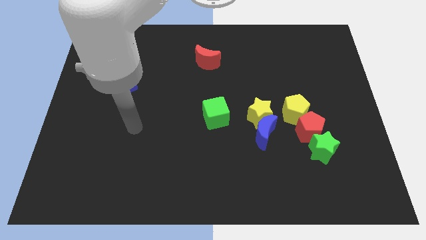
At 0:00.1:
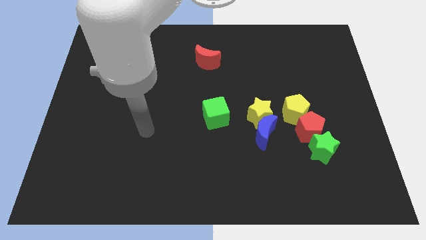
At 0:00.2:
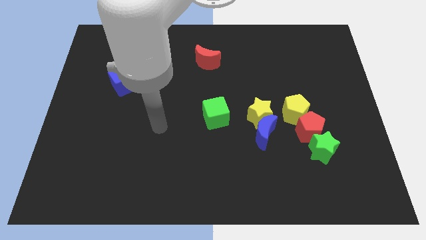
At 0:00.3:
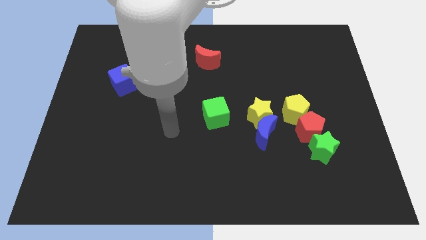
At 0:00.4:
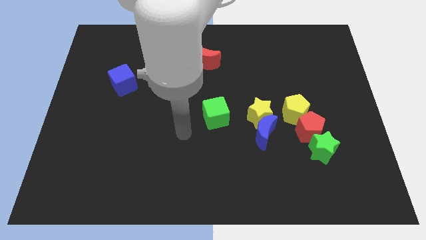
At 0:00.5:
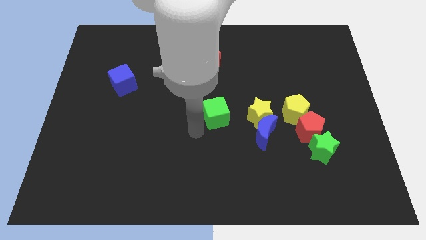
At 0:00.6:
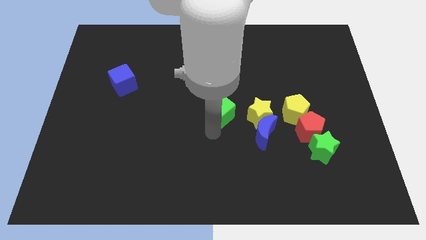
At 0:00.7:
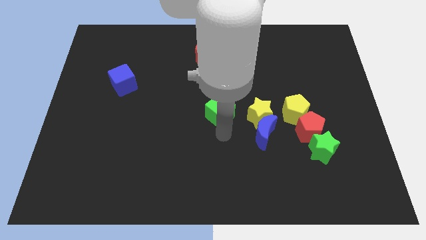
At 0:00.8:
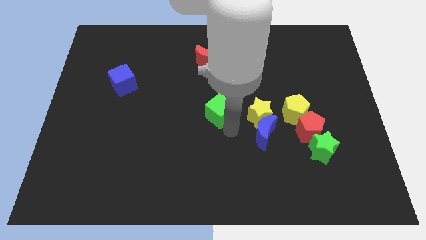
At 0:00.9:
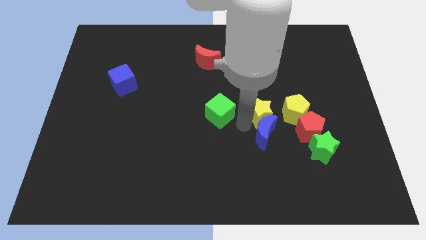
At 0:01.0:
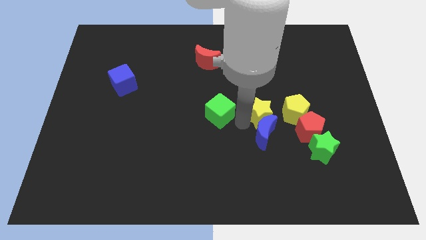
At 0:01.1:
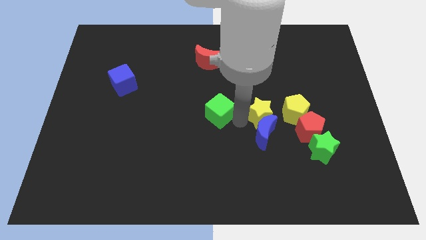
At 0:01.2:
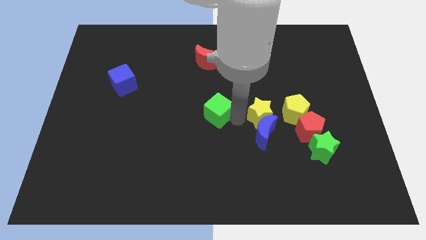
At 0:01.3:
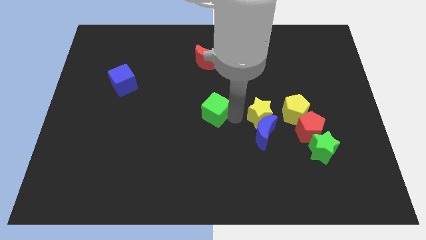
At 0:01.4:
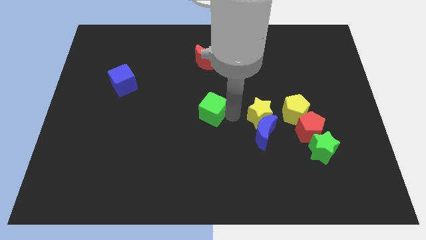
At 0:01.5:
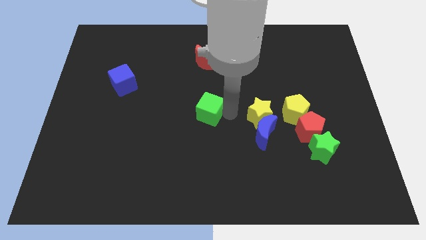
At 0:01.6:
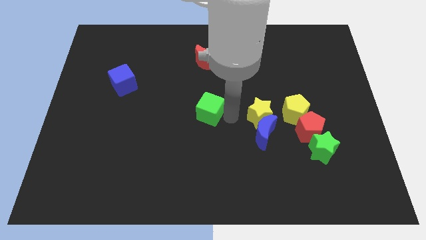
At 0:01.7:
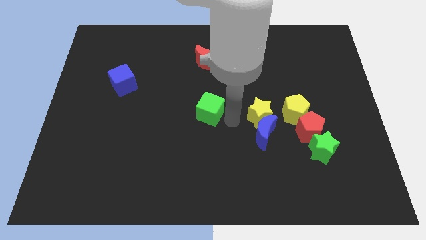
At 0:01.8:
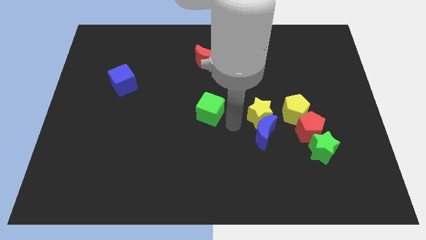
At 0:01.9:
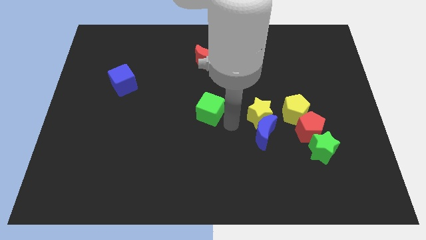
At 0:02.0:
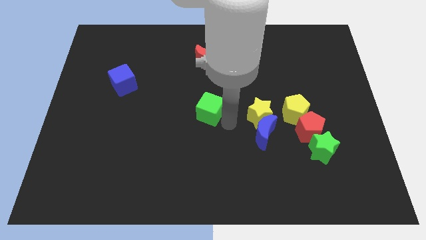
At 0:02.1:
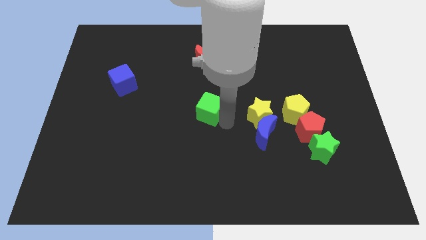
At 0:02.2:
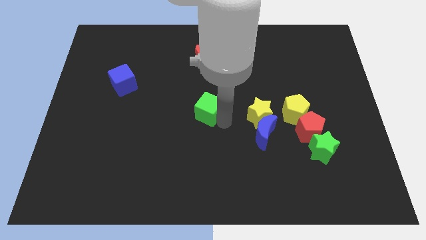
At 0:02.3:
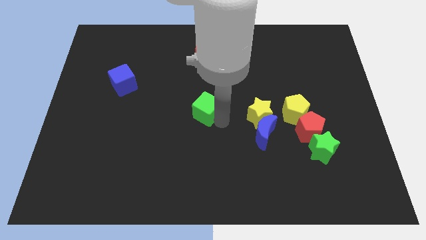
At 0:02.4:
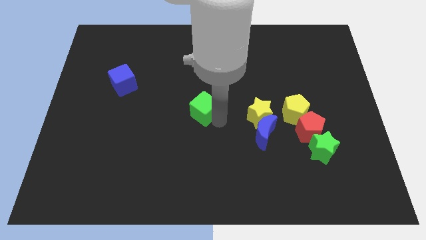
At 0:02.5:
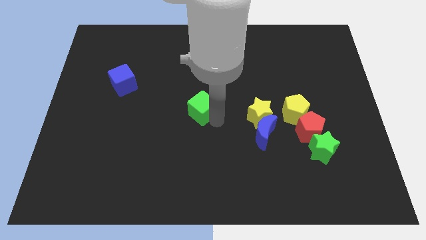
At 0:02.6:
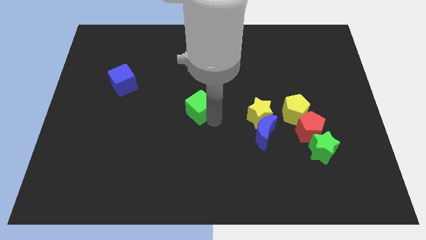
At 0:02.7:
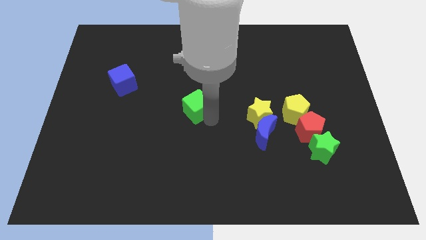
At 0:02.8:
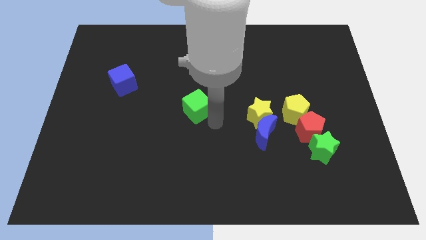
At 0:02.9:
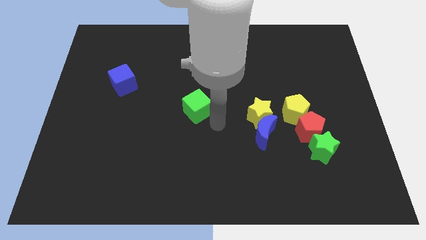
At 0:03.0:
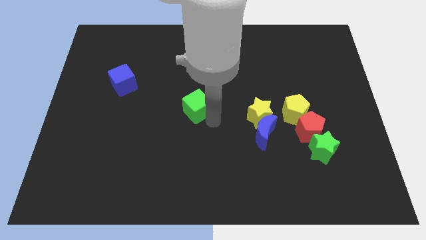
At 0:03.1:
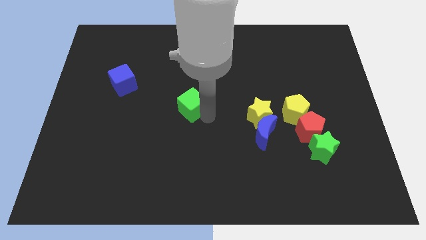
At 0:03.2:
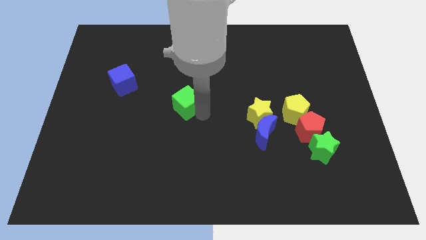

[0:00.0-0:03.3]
slide the green cube a little bit diagonally up and to the left

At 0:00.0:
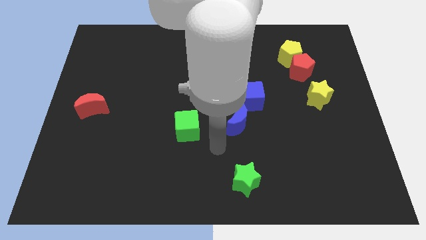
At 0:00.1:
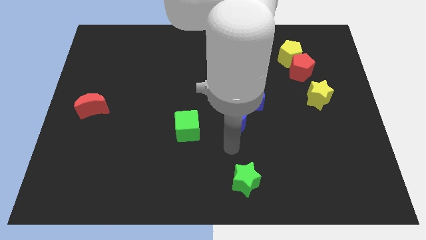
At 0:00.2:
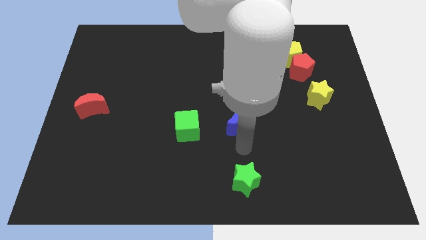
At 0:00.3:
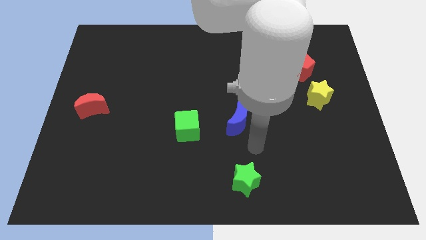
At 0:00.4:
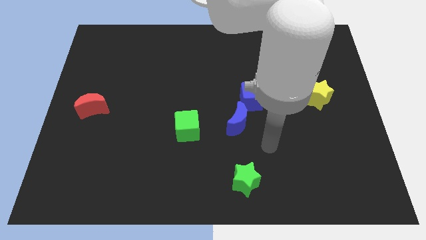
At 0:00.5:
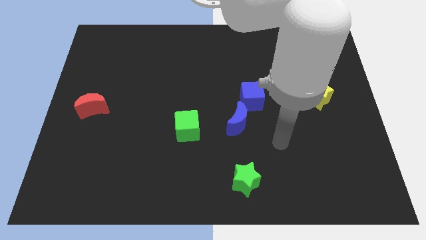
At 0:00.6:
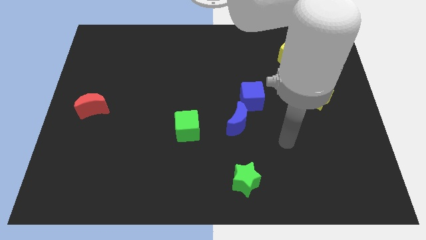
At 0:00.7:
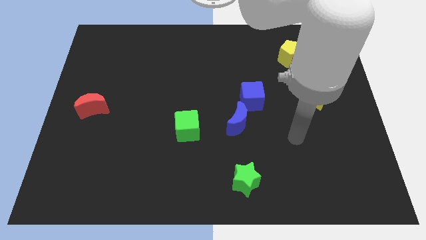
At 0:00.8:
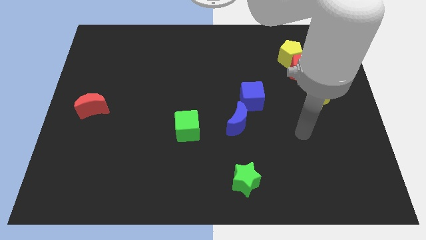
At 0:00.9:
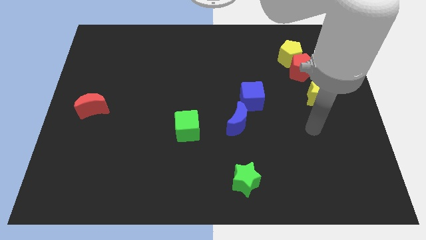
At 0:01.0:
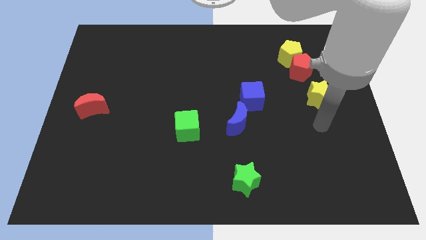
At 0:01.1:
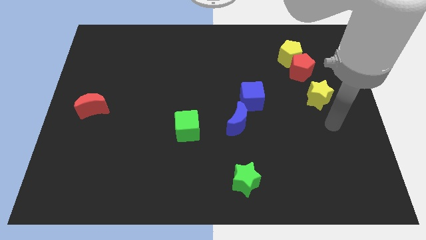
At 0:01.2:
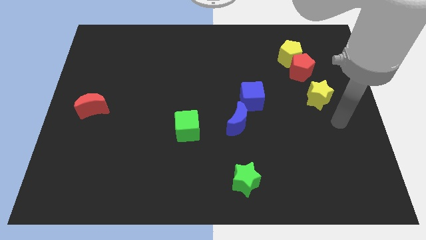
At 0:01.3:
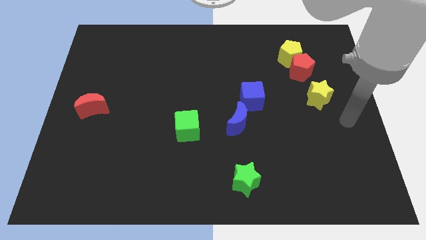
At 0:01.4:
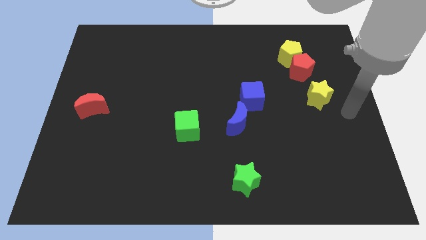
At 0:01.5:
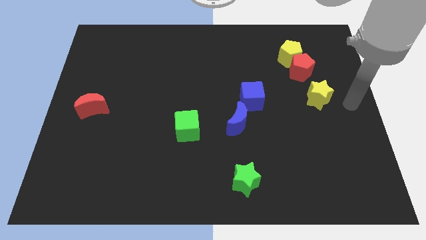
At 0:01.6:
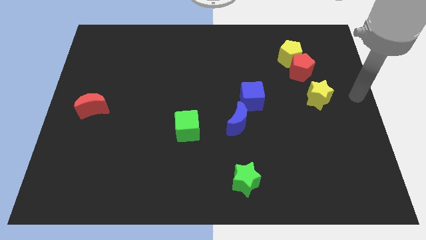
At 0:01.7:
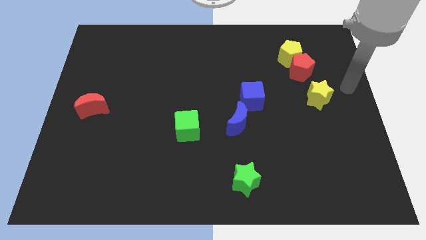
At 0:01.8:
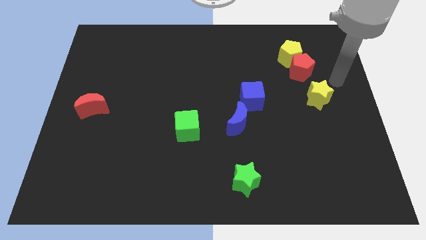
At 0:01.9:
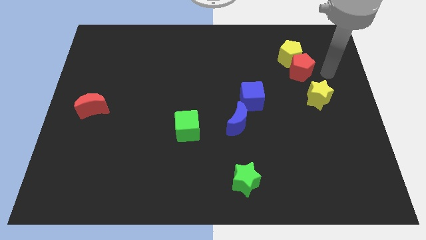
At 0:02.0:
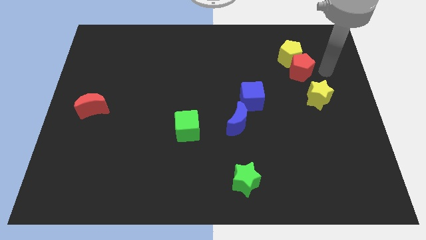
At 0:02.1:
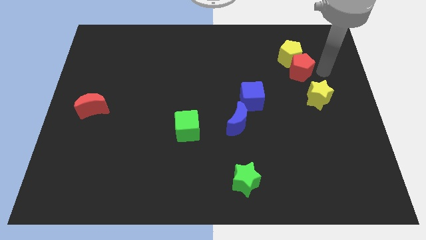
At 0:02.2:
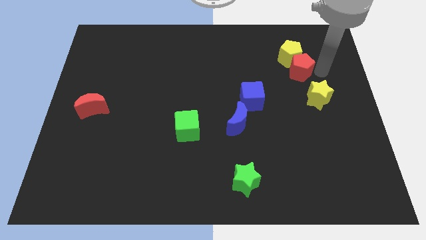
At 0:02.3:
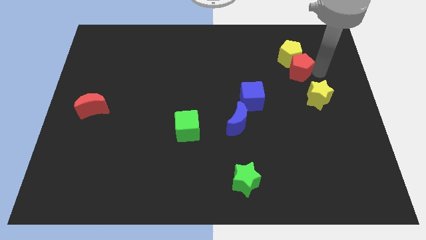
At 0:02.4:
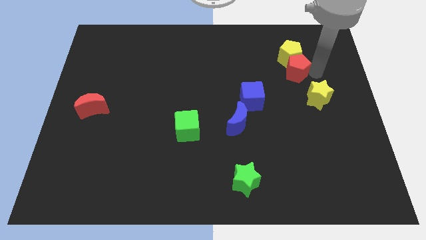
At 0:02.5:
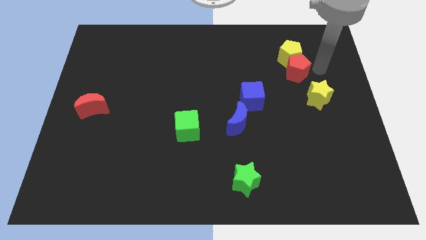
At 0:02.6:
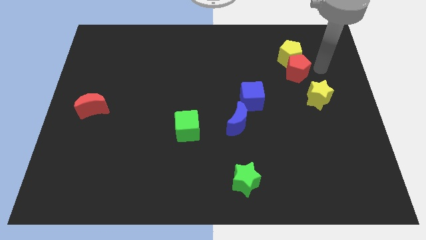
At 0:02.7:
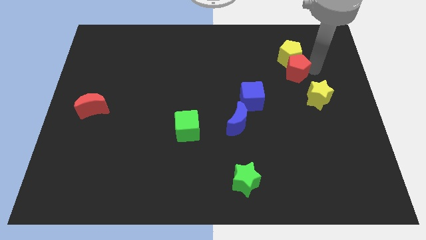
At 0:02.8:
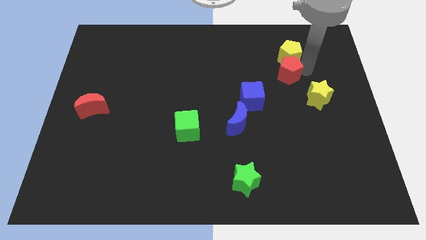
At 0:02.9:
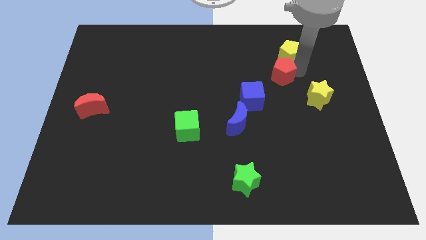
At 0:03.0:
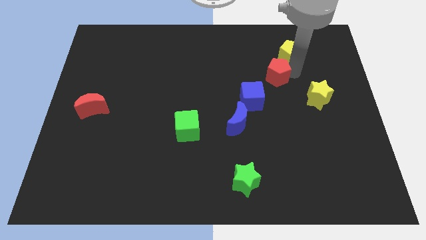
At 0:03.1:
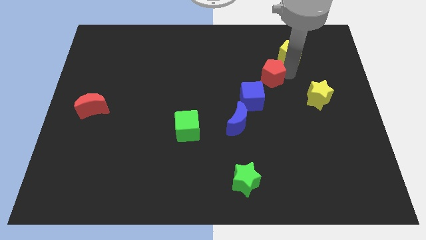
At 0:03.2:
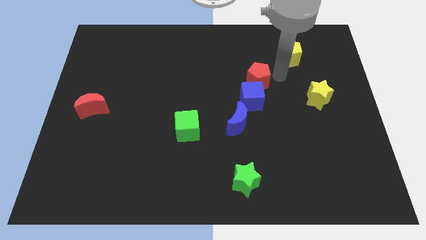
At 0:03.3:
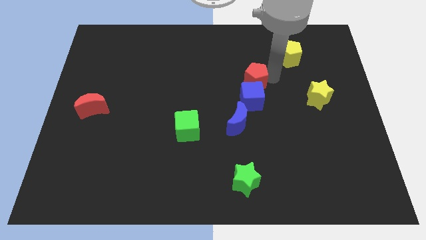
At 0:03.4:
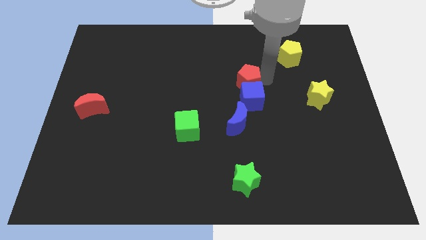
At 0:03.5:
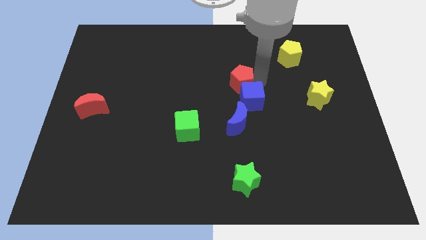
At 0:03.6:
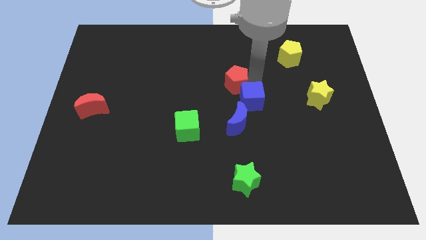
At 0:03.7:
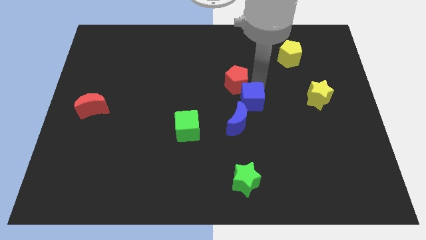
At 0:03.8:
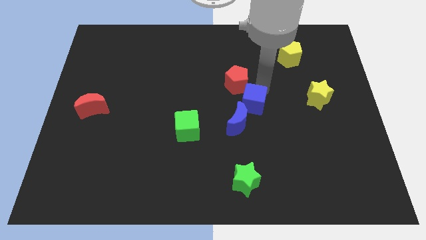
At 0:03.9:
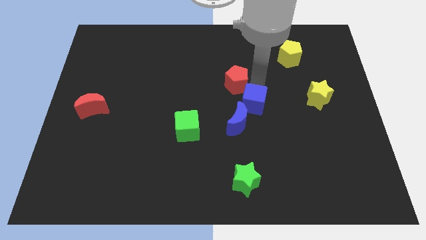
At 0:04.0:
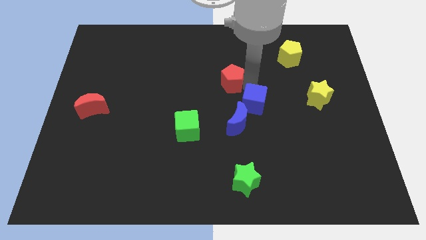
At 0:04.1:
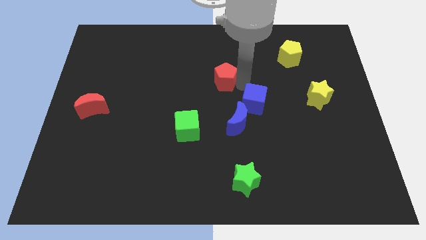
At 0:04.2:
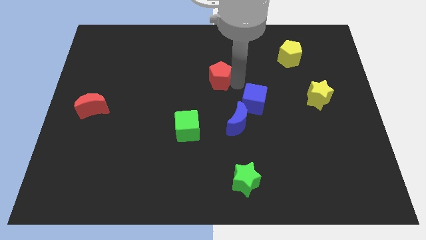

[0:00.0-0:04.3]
move the red pentagon to the left

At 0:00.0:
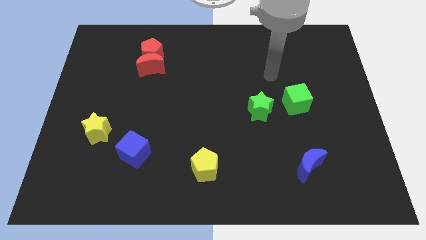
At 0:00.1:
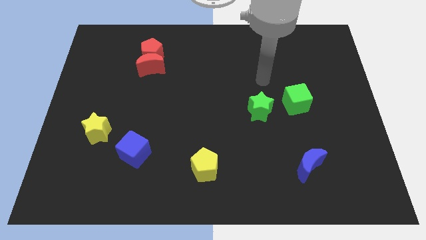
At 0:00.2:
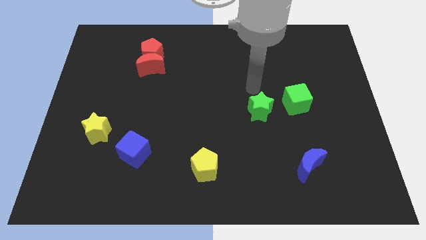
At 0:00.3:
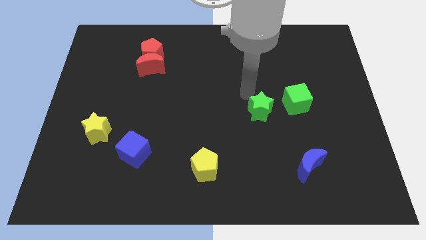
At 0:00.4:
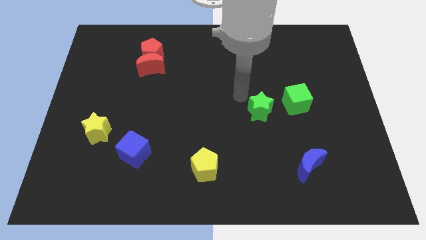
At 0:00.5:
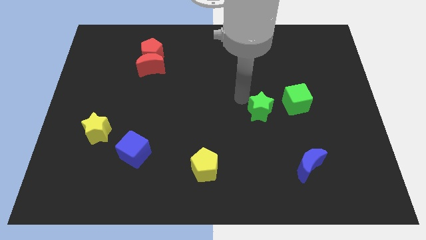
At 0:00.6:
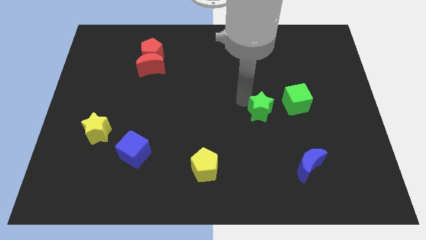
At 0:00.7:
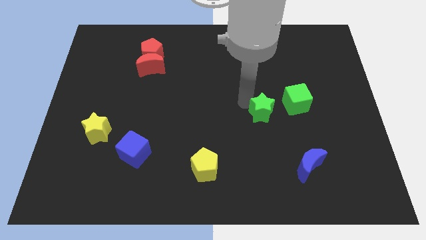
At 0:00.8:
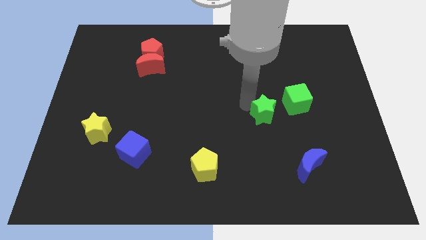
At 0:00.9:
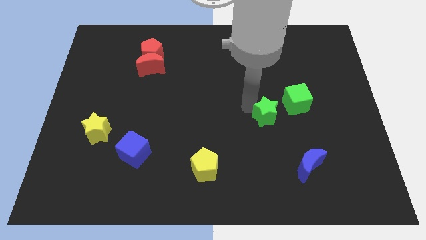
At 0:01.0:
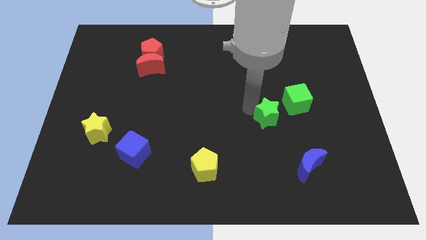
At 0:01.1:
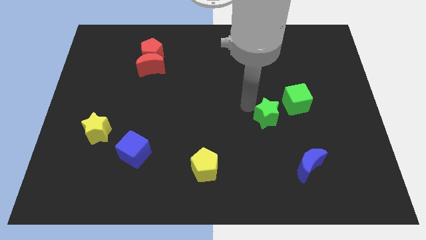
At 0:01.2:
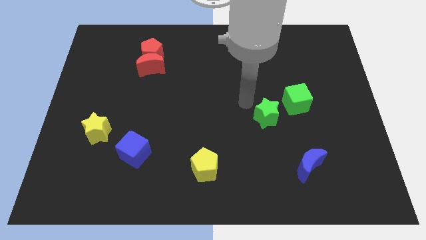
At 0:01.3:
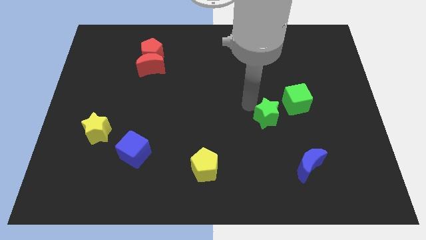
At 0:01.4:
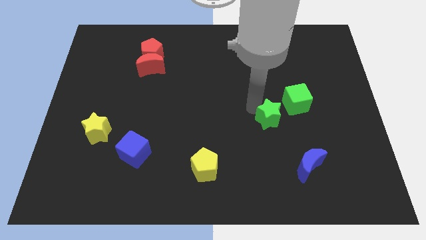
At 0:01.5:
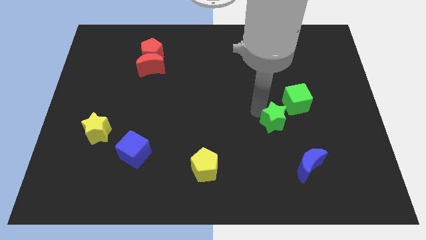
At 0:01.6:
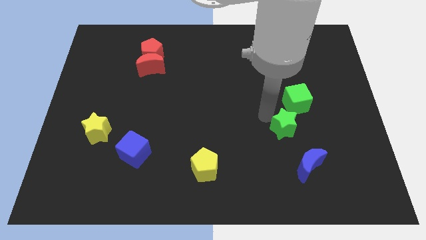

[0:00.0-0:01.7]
slide the green star slightly down and right diagonally
